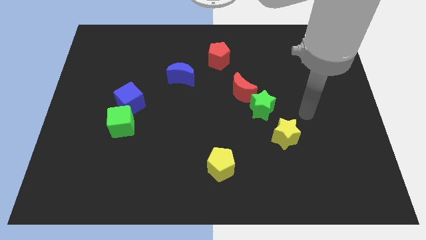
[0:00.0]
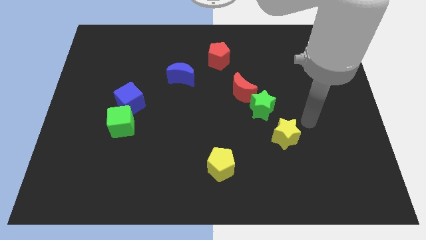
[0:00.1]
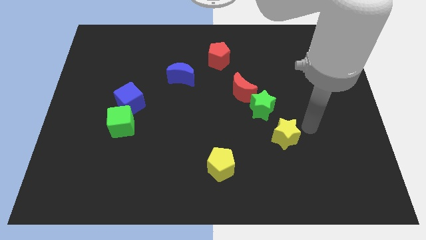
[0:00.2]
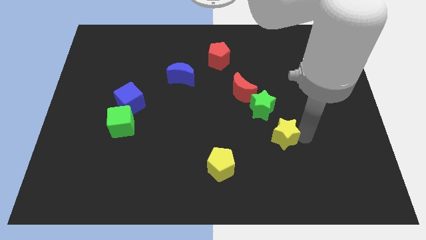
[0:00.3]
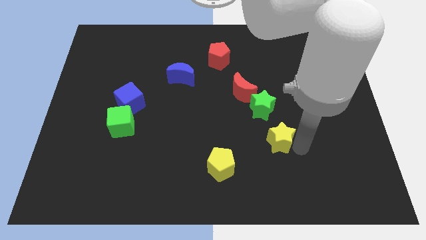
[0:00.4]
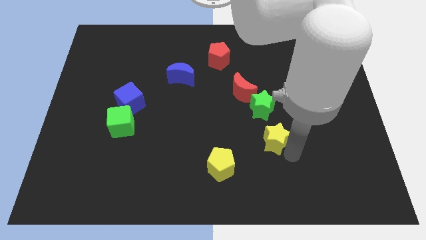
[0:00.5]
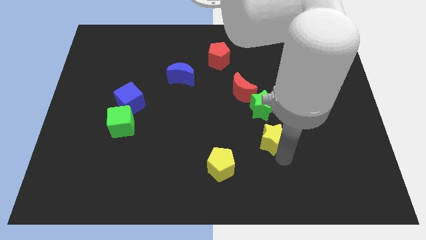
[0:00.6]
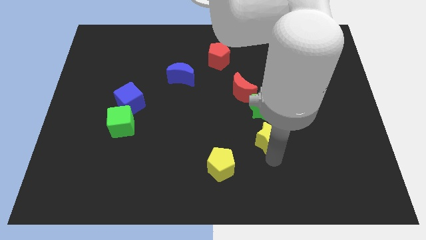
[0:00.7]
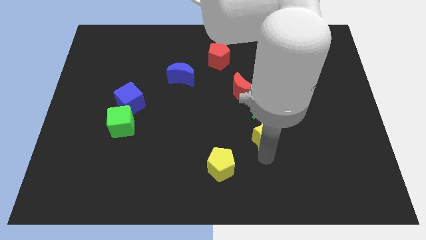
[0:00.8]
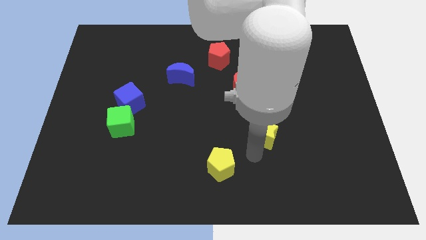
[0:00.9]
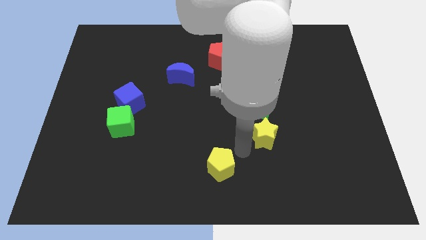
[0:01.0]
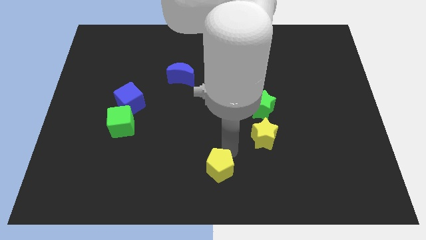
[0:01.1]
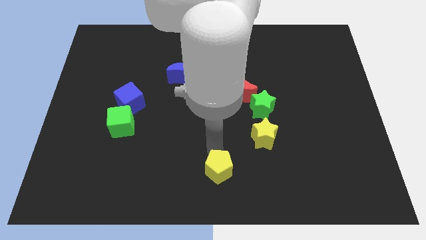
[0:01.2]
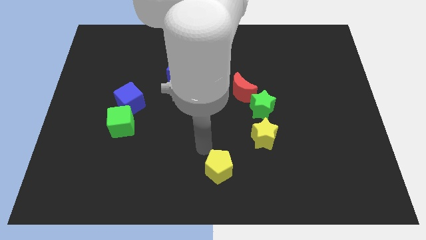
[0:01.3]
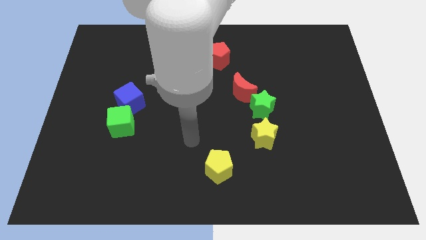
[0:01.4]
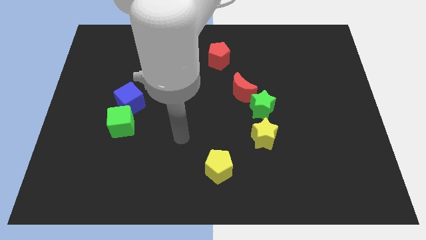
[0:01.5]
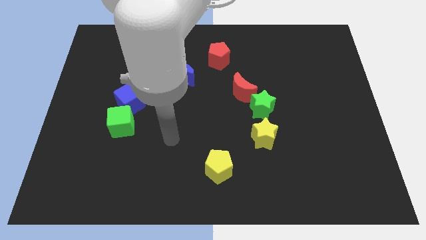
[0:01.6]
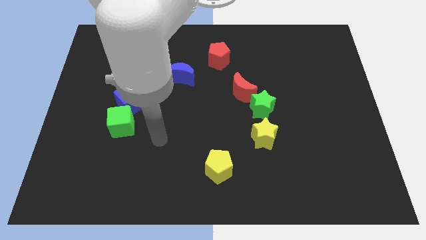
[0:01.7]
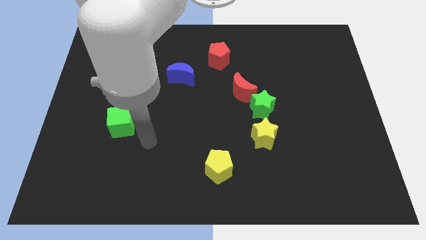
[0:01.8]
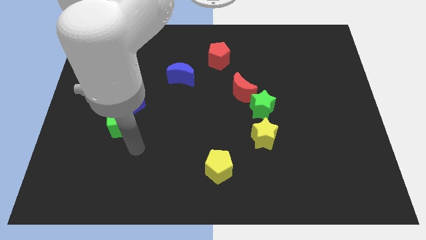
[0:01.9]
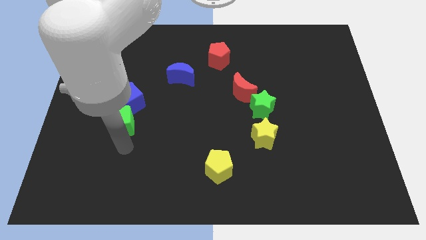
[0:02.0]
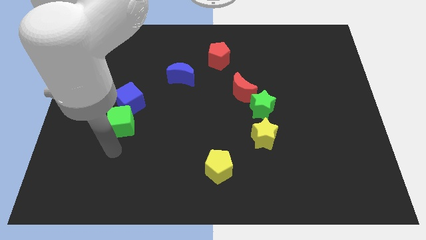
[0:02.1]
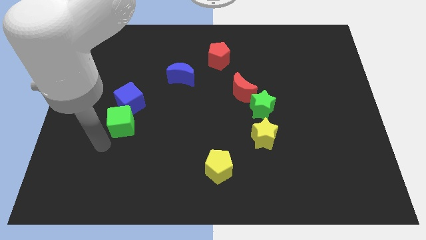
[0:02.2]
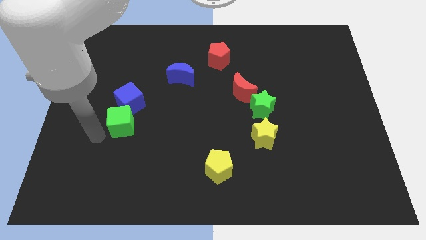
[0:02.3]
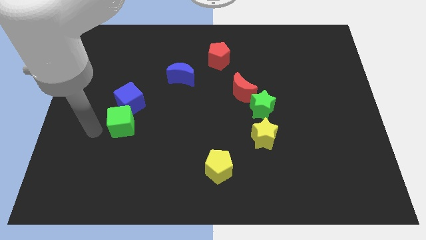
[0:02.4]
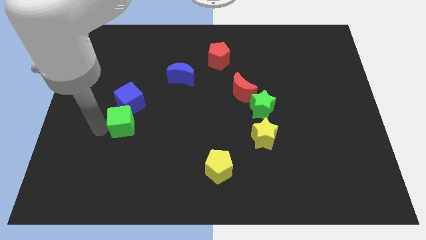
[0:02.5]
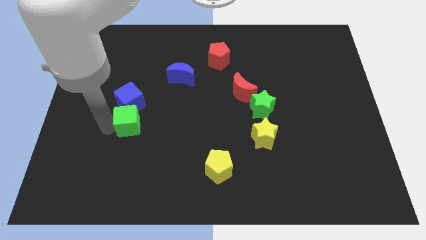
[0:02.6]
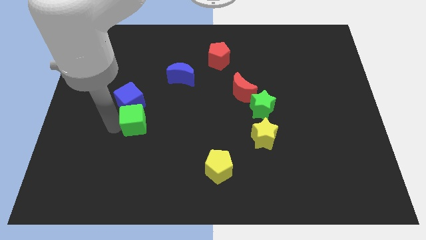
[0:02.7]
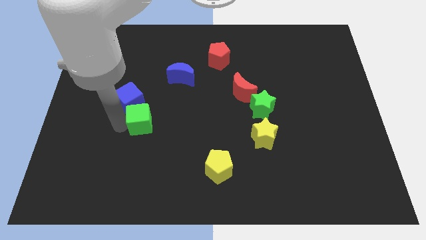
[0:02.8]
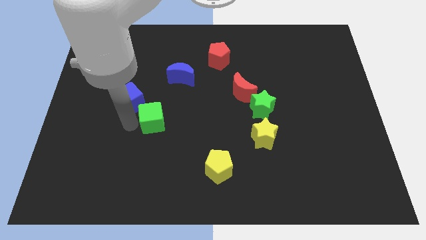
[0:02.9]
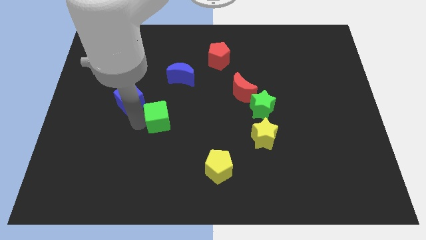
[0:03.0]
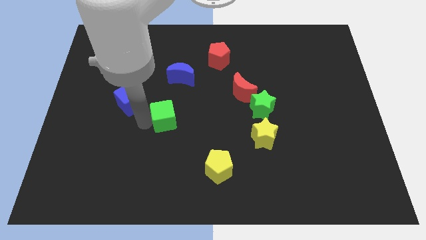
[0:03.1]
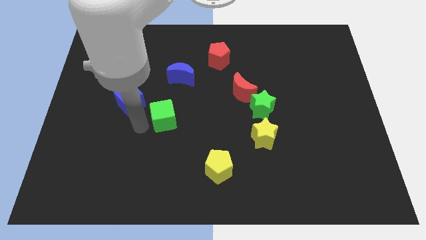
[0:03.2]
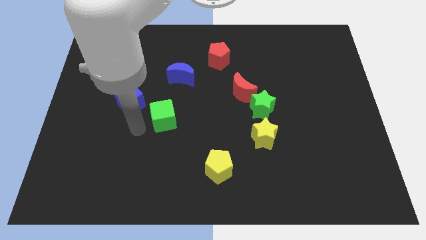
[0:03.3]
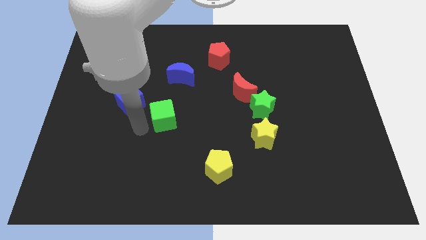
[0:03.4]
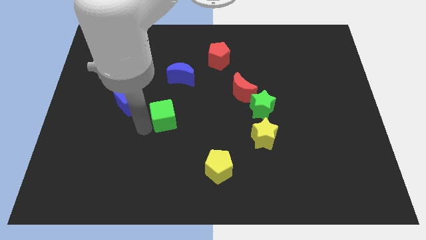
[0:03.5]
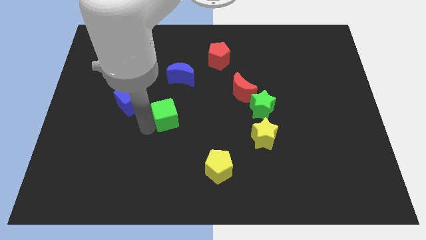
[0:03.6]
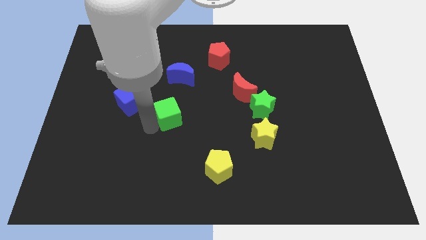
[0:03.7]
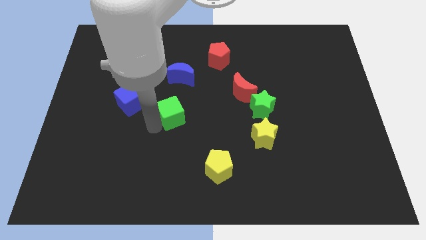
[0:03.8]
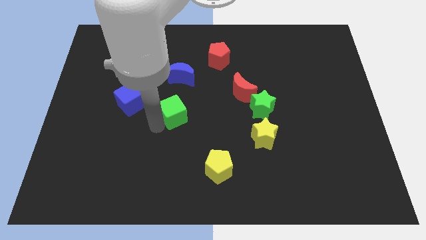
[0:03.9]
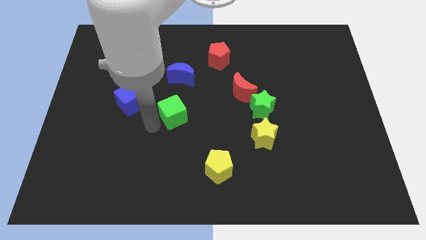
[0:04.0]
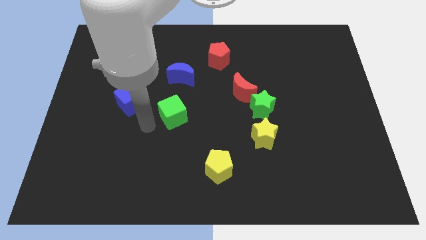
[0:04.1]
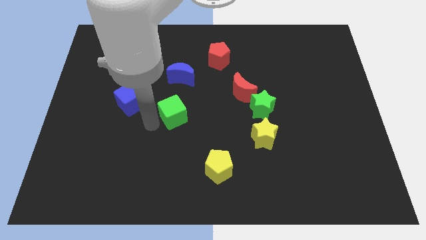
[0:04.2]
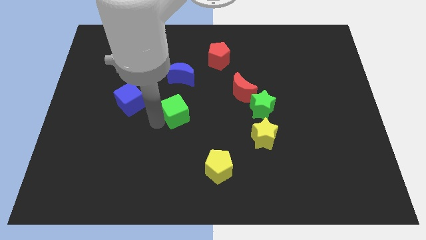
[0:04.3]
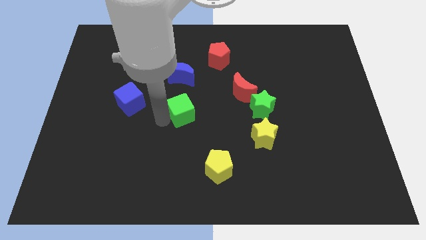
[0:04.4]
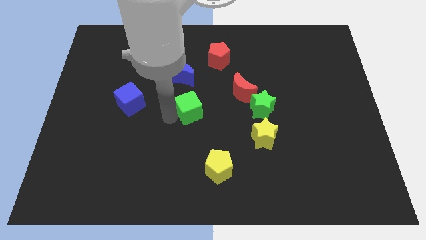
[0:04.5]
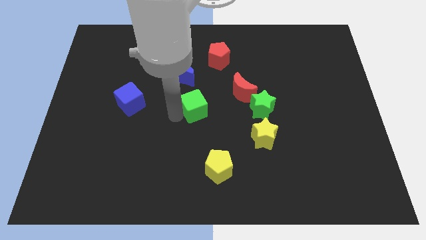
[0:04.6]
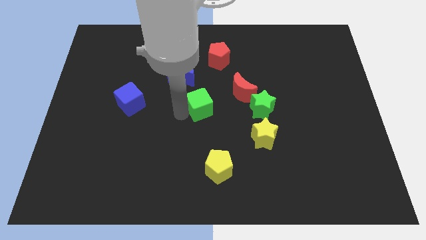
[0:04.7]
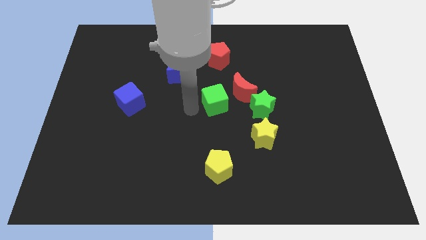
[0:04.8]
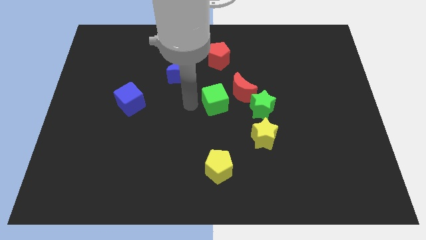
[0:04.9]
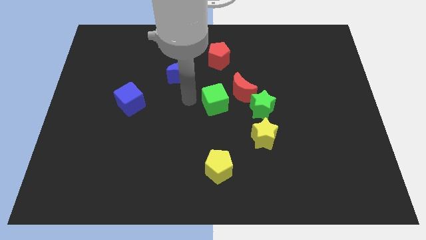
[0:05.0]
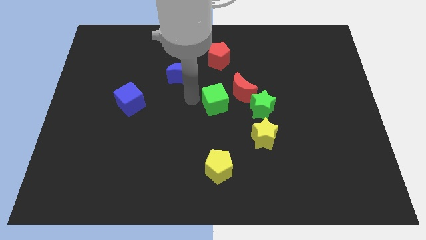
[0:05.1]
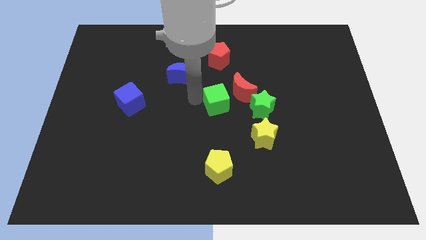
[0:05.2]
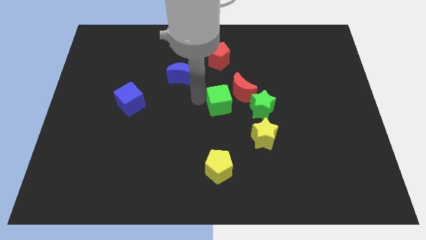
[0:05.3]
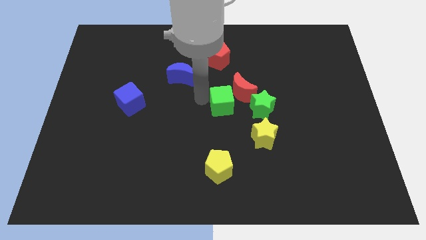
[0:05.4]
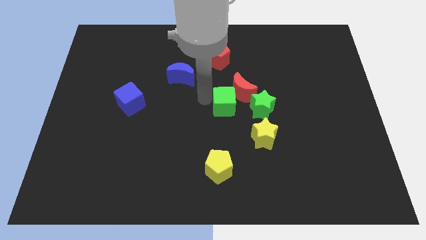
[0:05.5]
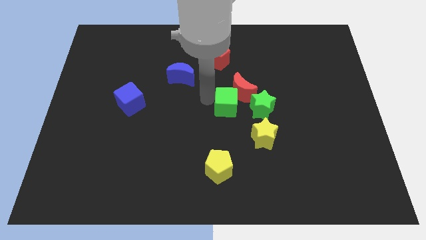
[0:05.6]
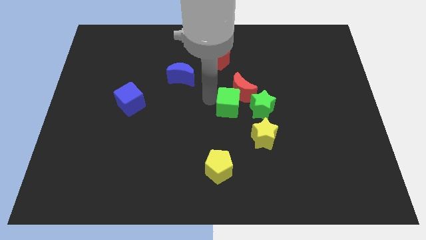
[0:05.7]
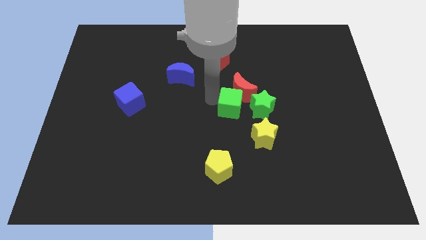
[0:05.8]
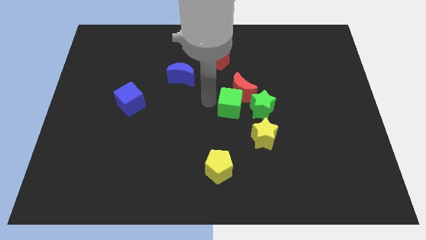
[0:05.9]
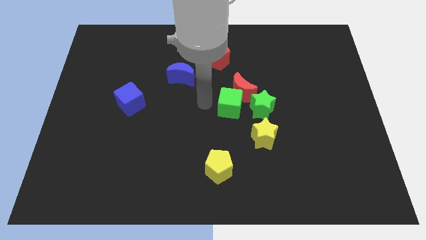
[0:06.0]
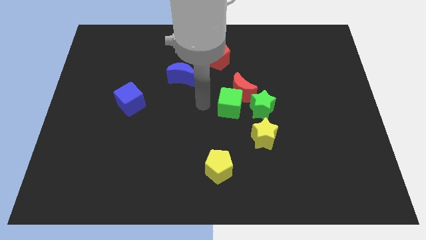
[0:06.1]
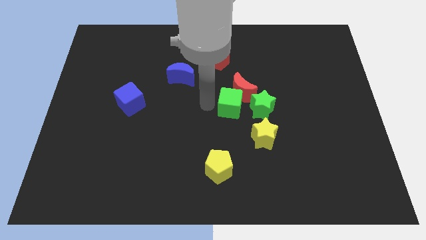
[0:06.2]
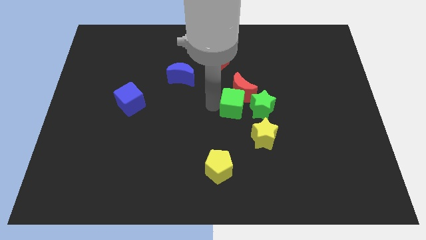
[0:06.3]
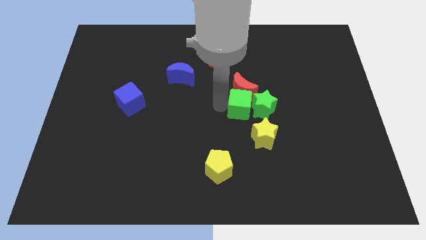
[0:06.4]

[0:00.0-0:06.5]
put the green cube to the green star

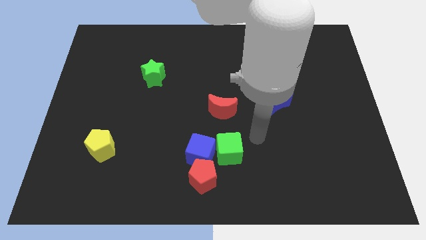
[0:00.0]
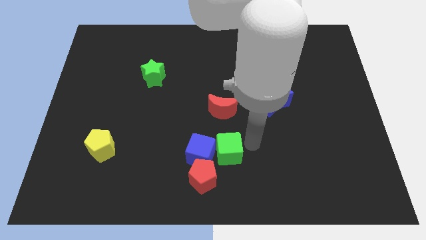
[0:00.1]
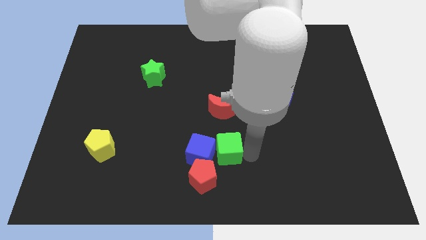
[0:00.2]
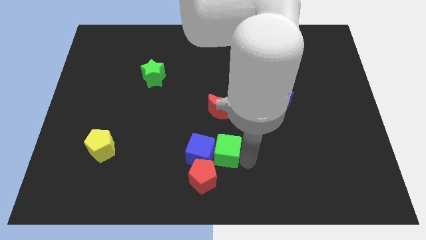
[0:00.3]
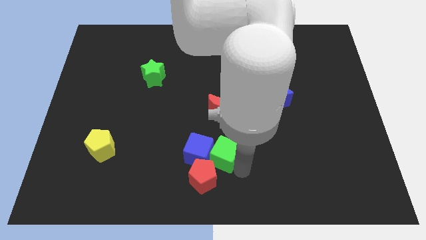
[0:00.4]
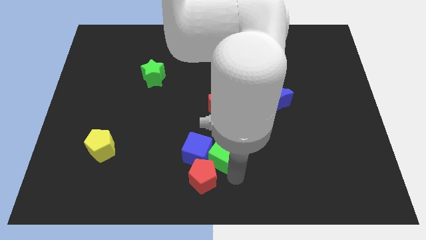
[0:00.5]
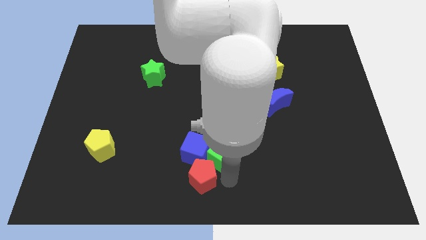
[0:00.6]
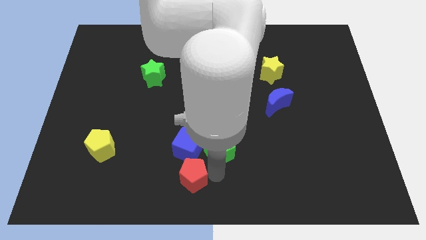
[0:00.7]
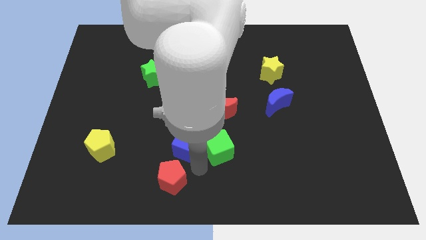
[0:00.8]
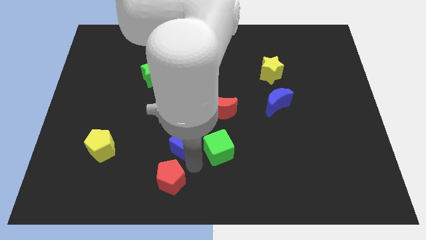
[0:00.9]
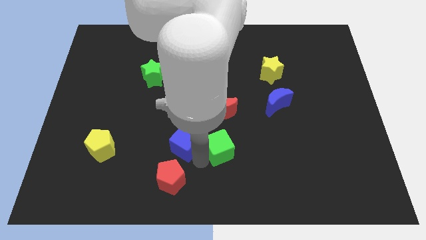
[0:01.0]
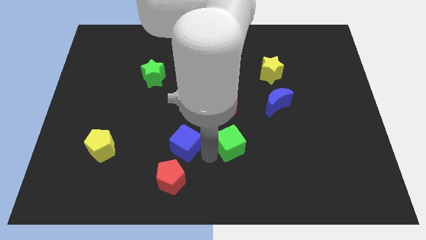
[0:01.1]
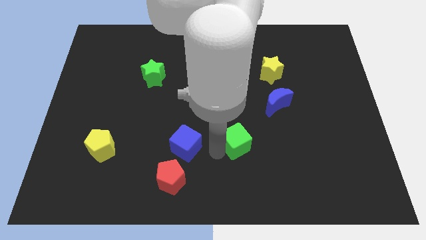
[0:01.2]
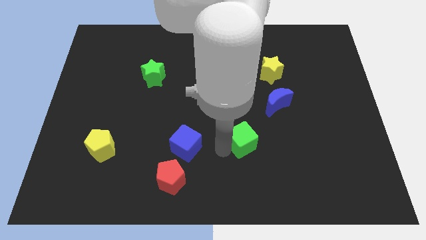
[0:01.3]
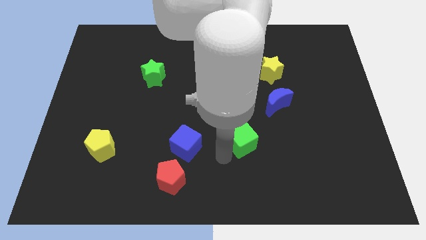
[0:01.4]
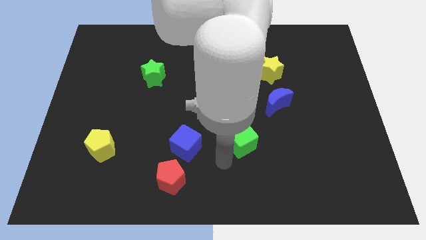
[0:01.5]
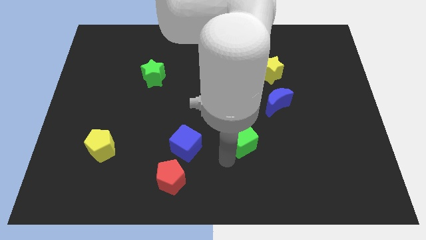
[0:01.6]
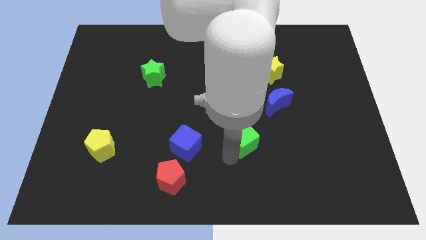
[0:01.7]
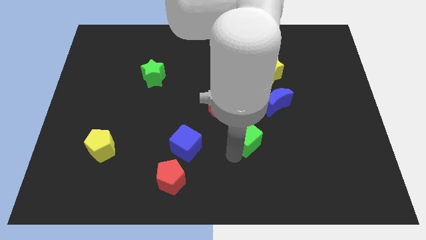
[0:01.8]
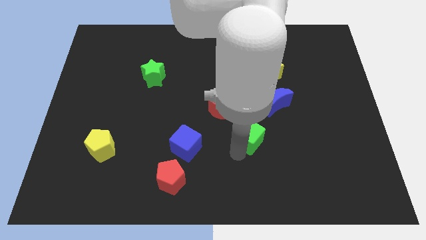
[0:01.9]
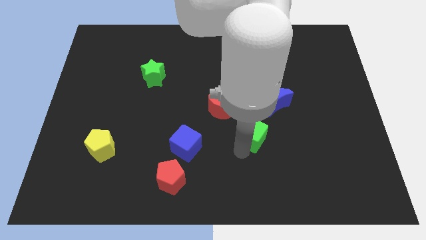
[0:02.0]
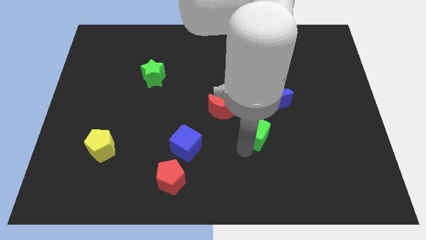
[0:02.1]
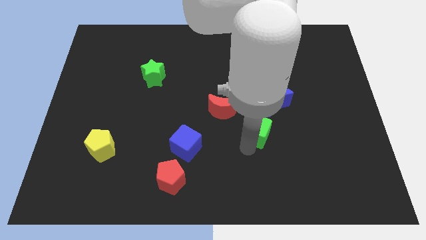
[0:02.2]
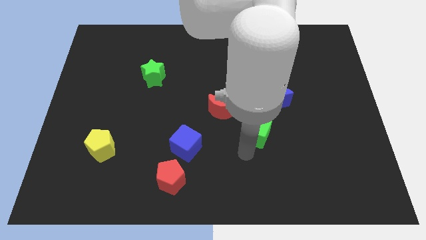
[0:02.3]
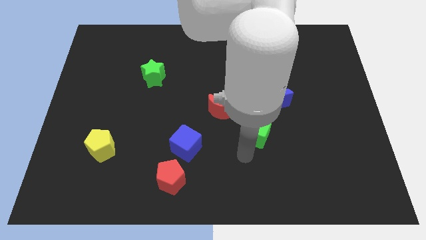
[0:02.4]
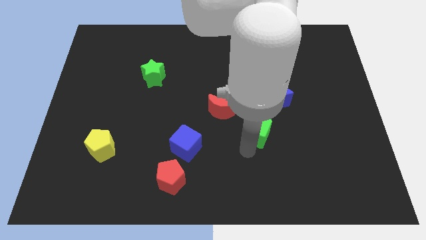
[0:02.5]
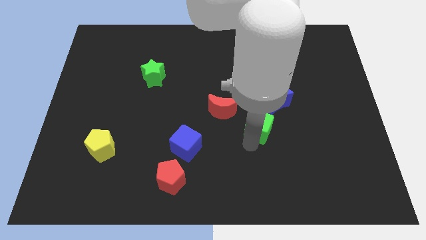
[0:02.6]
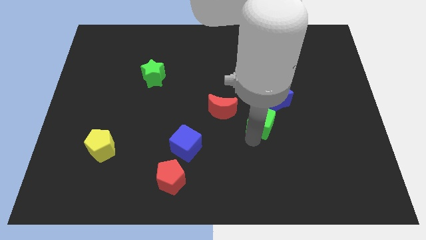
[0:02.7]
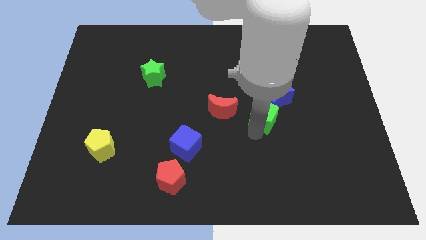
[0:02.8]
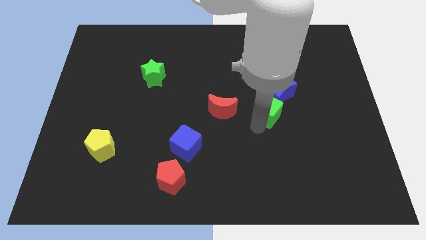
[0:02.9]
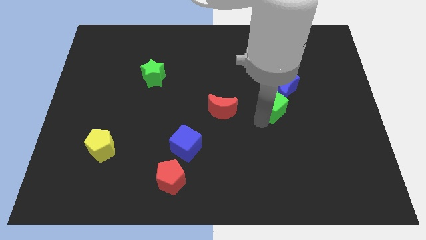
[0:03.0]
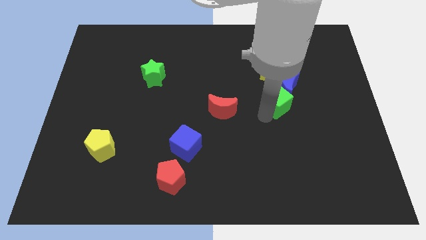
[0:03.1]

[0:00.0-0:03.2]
put the green cube to the blue moon
